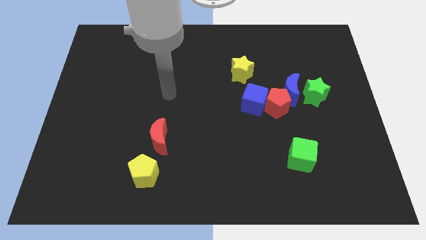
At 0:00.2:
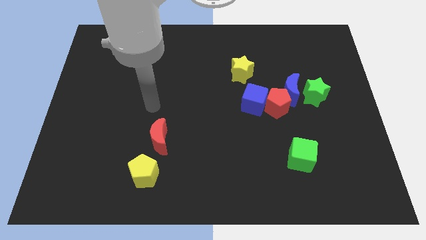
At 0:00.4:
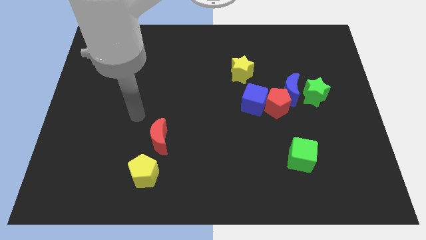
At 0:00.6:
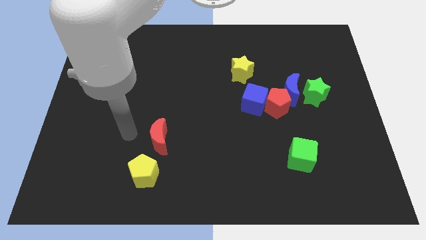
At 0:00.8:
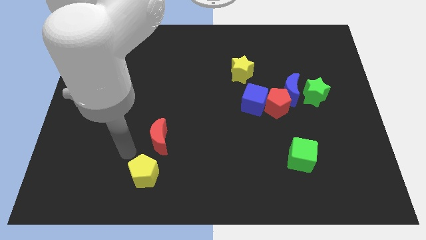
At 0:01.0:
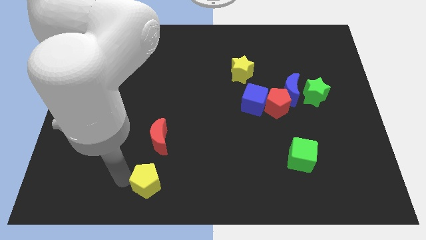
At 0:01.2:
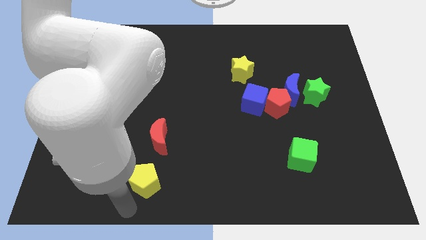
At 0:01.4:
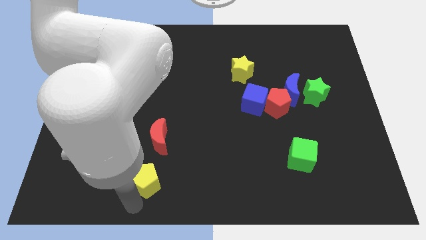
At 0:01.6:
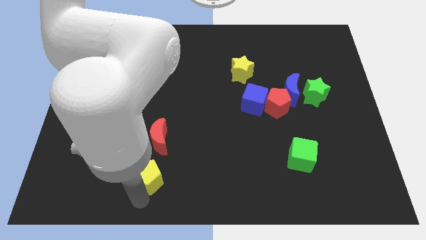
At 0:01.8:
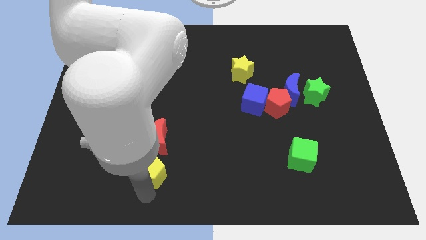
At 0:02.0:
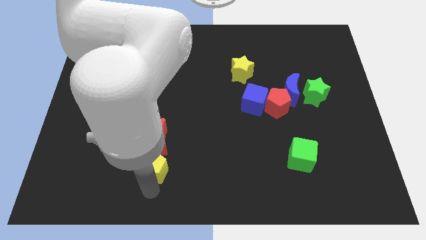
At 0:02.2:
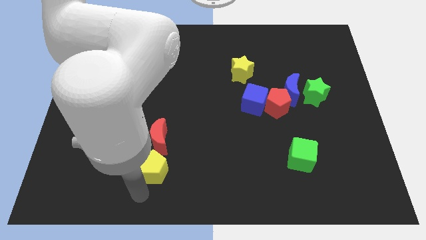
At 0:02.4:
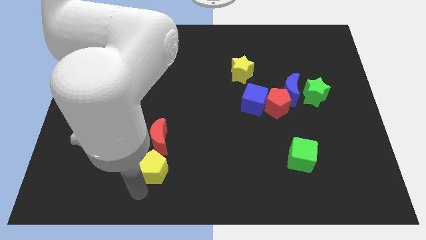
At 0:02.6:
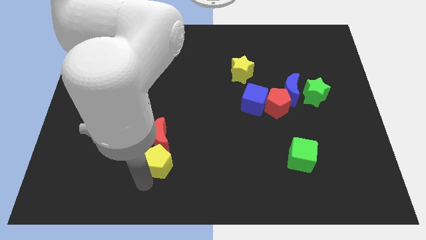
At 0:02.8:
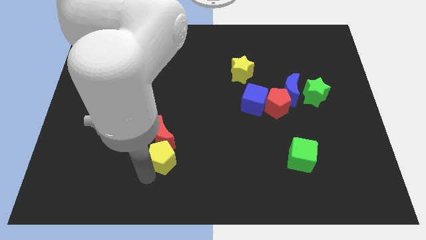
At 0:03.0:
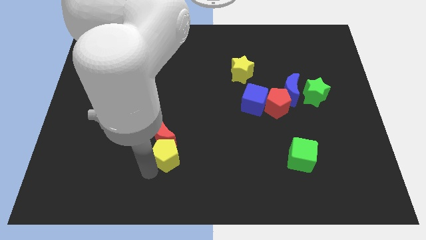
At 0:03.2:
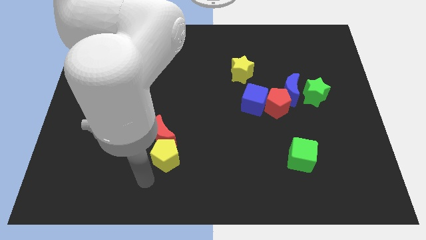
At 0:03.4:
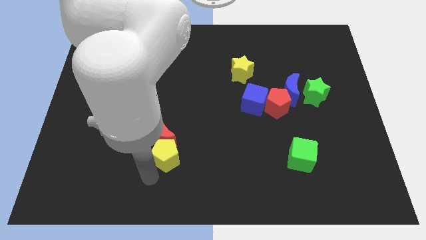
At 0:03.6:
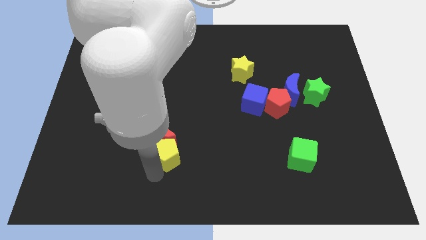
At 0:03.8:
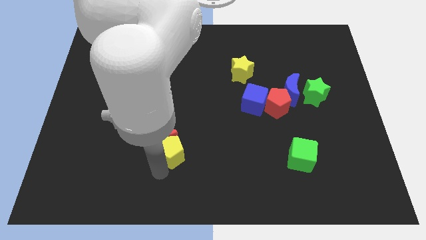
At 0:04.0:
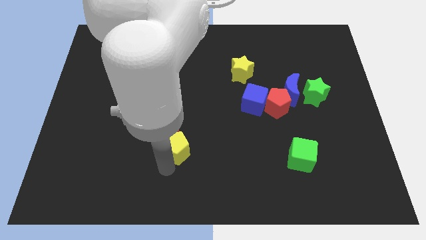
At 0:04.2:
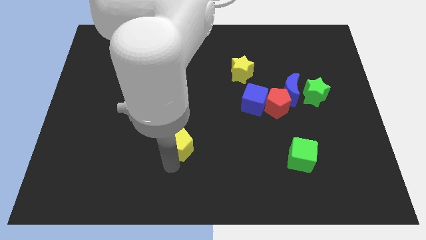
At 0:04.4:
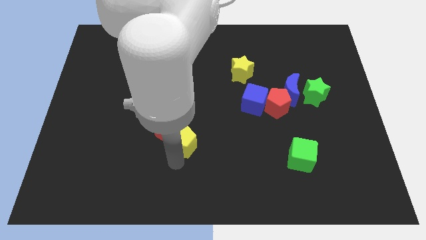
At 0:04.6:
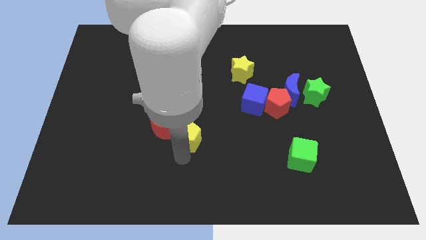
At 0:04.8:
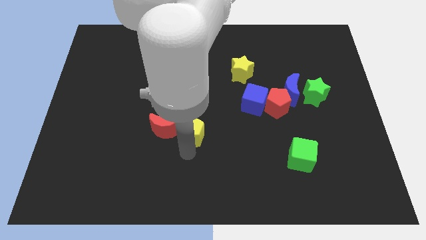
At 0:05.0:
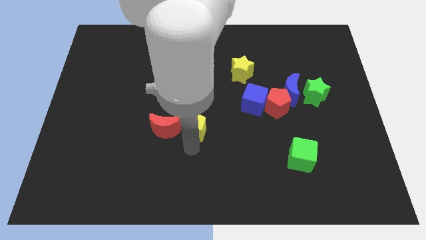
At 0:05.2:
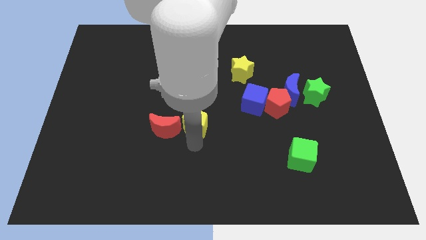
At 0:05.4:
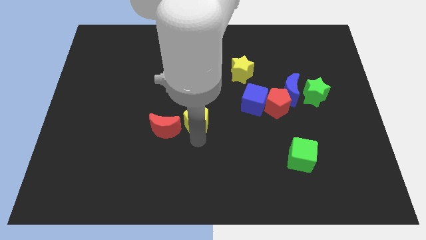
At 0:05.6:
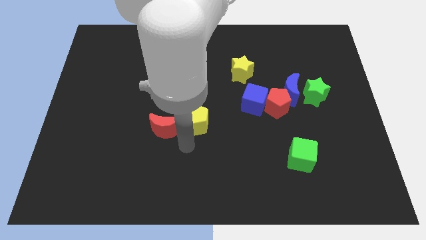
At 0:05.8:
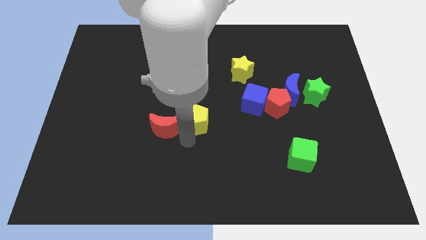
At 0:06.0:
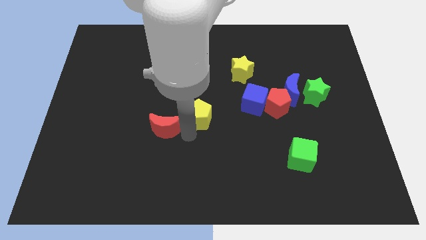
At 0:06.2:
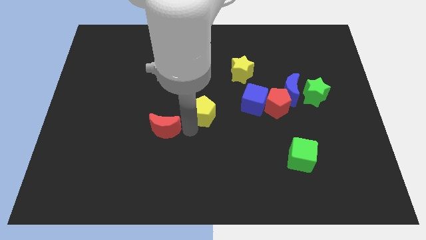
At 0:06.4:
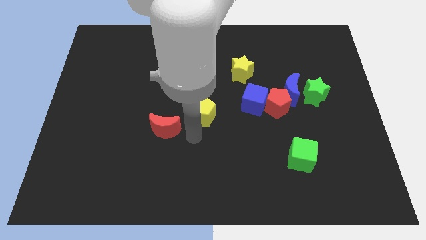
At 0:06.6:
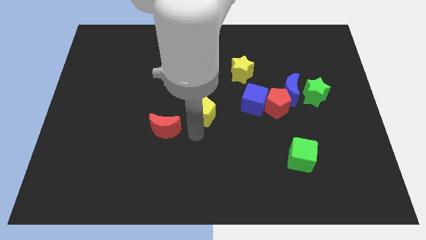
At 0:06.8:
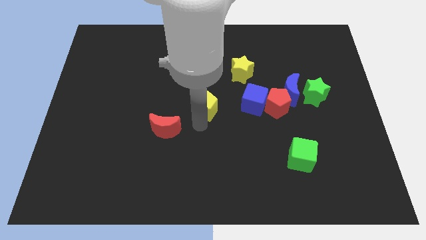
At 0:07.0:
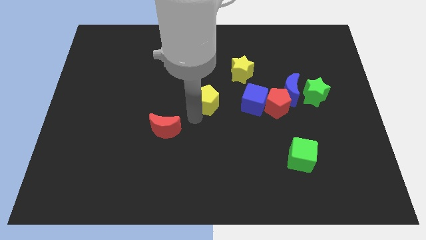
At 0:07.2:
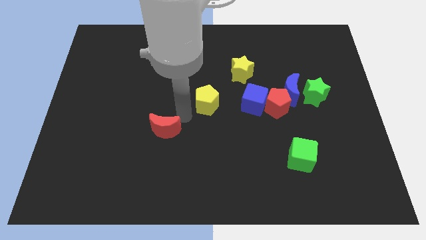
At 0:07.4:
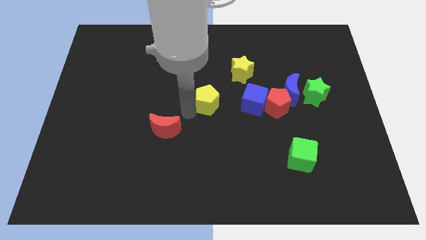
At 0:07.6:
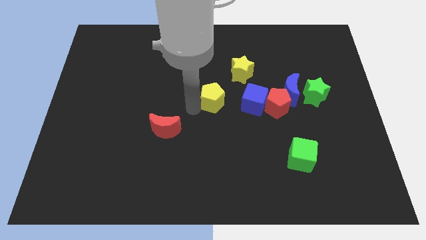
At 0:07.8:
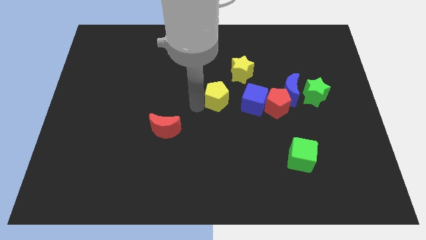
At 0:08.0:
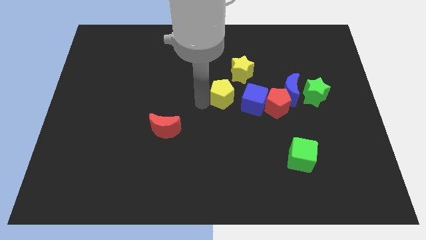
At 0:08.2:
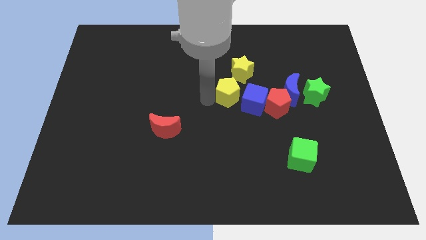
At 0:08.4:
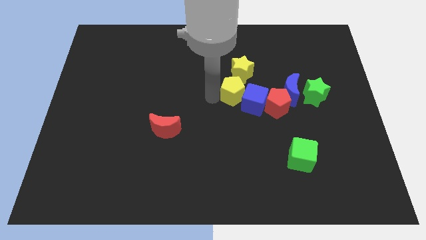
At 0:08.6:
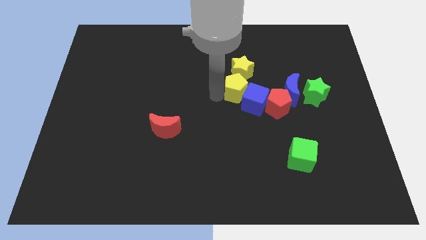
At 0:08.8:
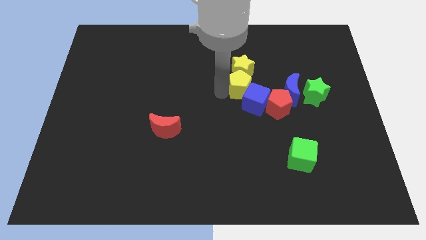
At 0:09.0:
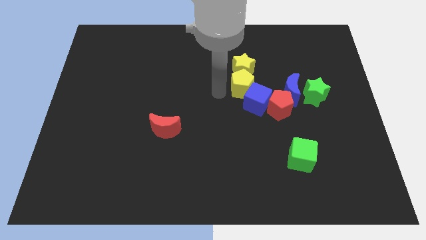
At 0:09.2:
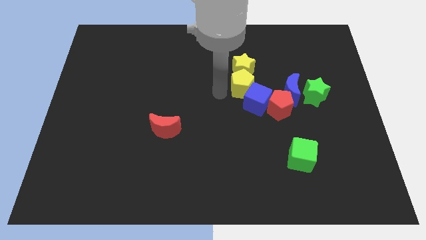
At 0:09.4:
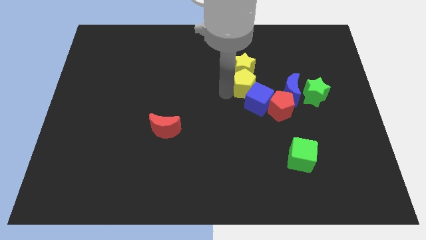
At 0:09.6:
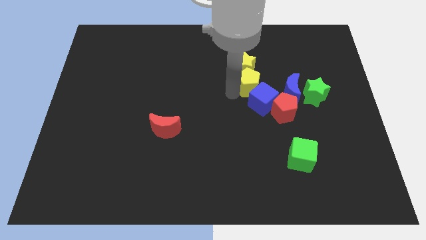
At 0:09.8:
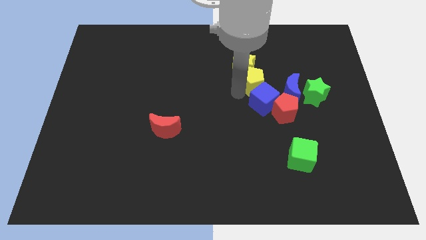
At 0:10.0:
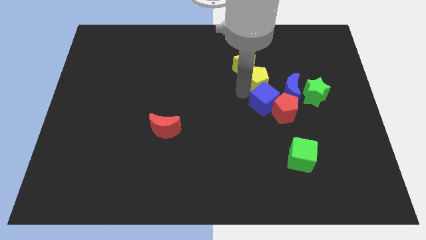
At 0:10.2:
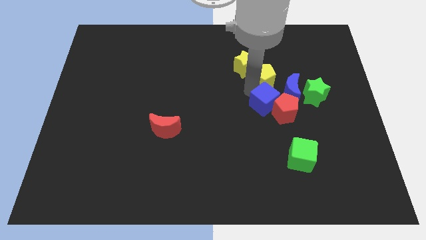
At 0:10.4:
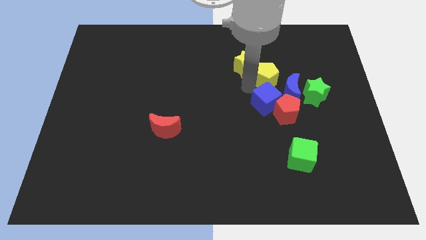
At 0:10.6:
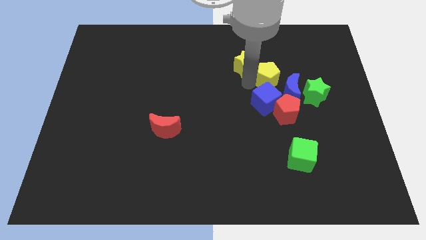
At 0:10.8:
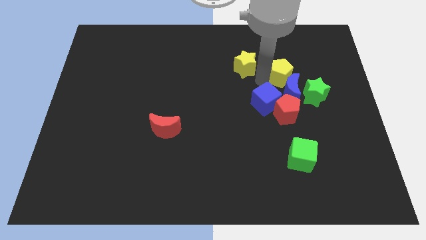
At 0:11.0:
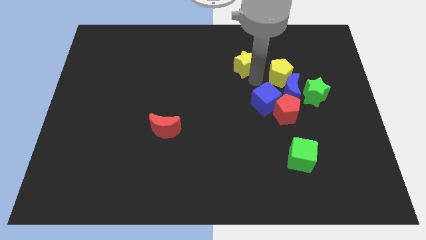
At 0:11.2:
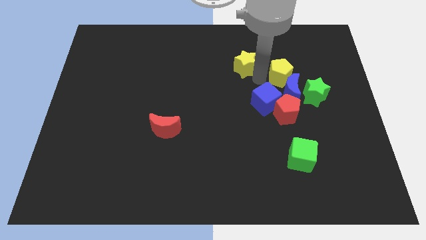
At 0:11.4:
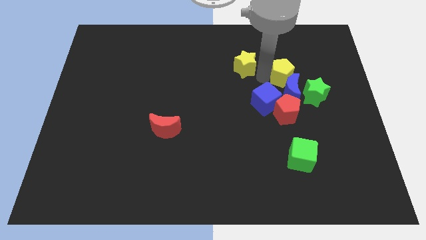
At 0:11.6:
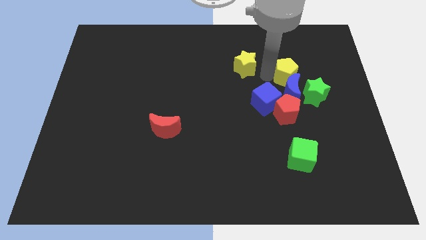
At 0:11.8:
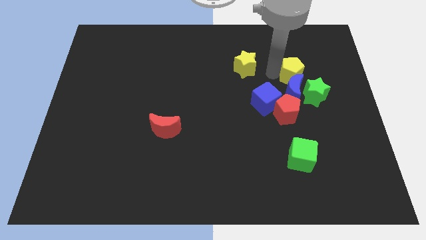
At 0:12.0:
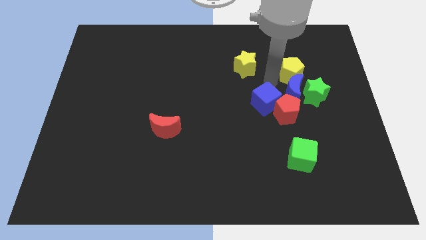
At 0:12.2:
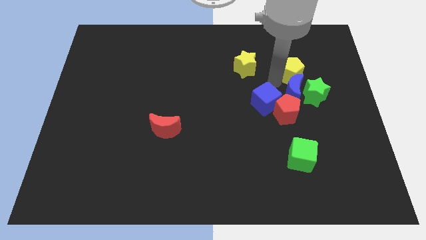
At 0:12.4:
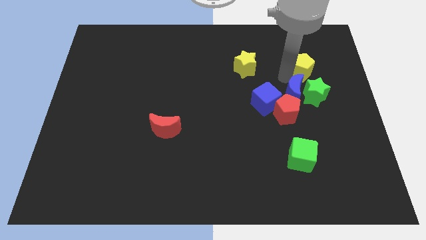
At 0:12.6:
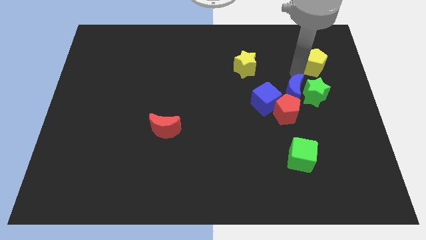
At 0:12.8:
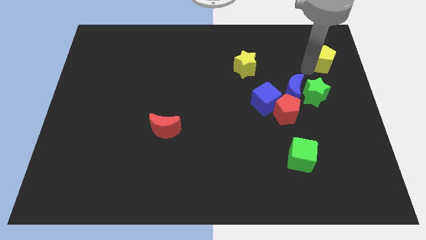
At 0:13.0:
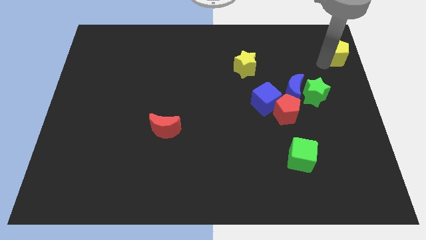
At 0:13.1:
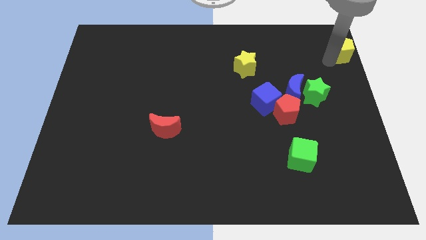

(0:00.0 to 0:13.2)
slide the yellow pentagon to the top right of the board

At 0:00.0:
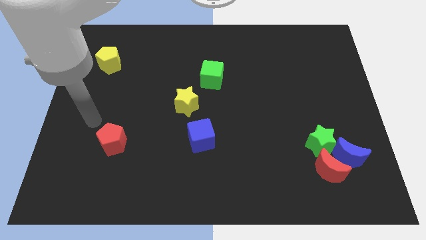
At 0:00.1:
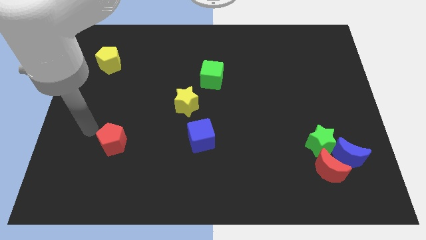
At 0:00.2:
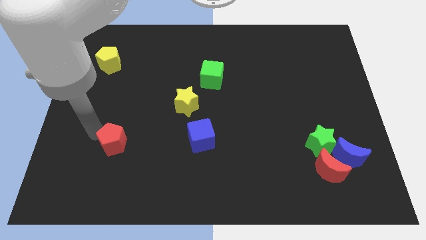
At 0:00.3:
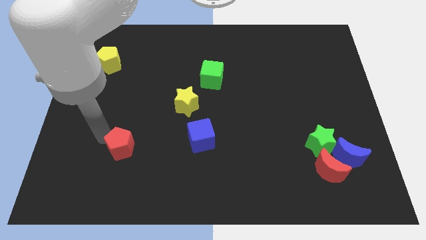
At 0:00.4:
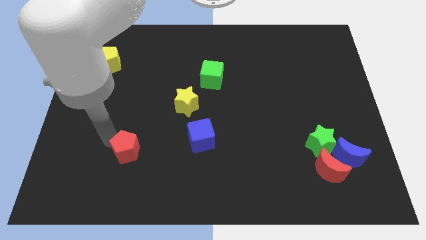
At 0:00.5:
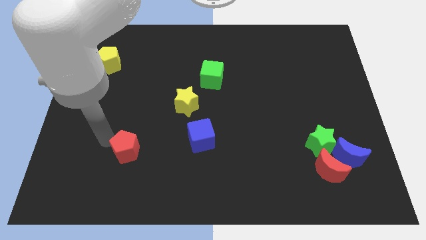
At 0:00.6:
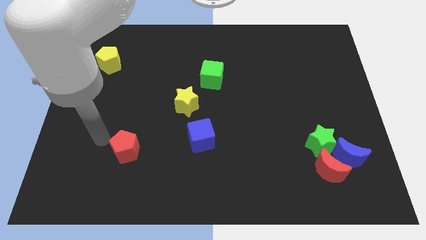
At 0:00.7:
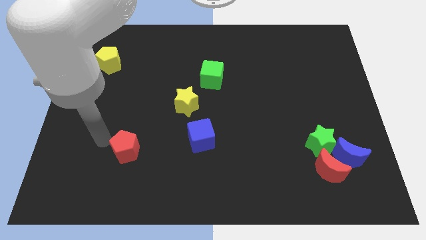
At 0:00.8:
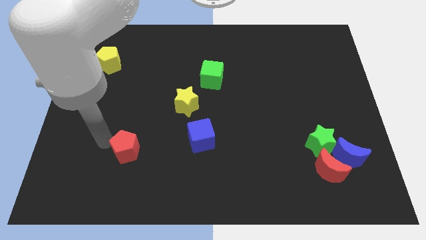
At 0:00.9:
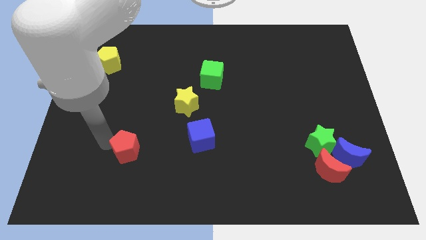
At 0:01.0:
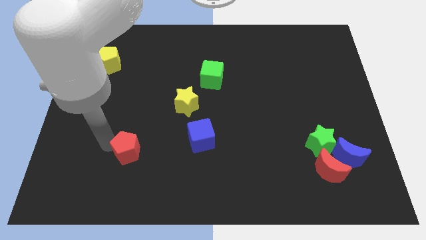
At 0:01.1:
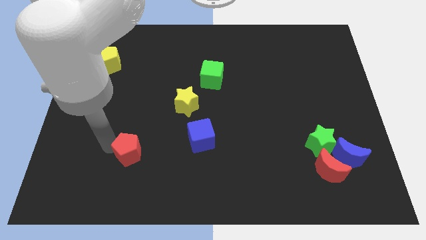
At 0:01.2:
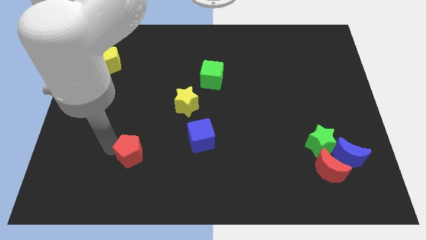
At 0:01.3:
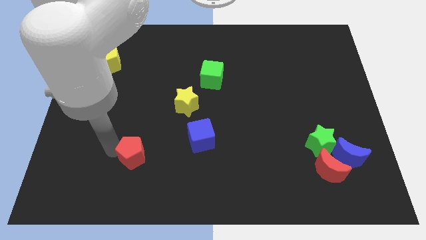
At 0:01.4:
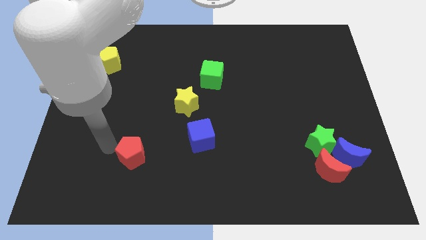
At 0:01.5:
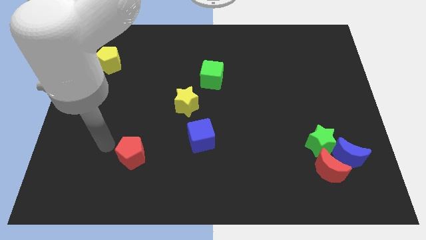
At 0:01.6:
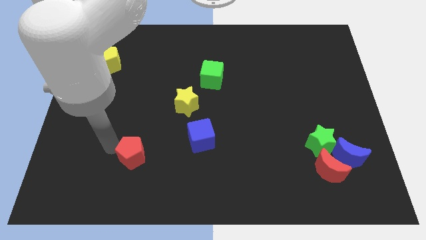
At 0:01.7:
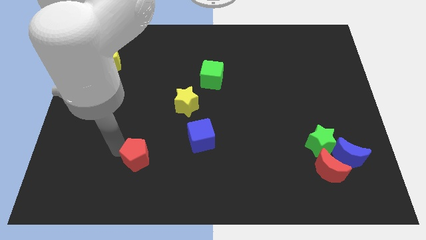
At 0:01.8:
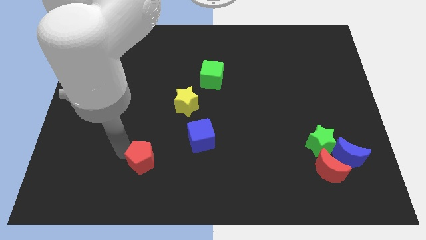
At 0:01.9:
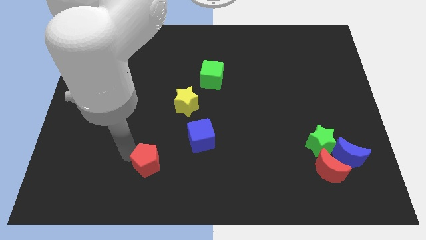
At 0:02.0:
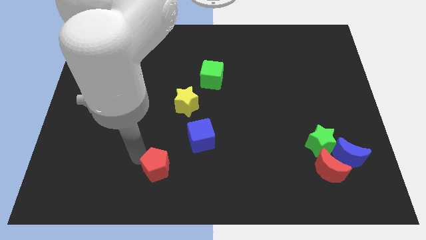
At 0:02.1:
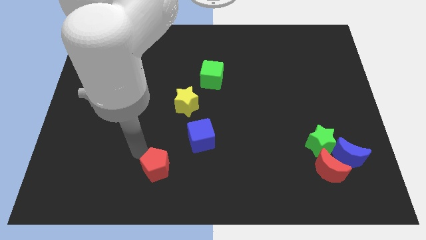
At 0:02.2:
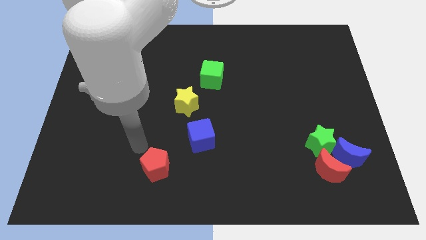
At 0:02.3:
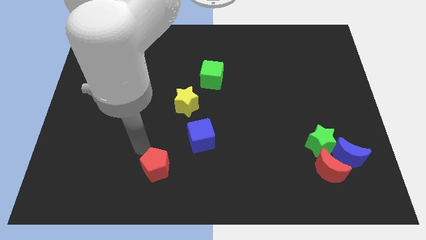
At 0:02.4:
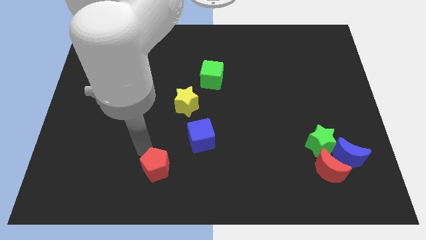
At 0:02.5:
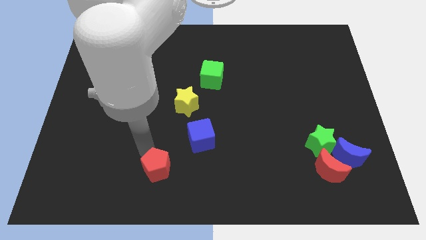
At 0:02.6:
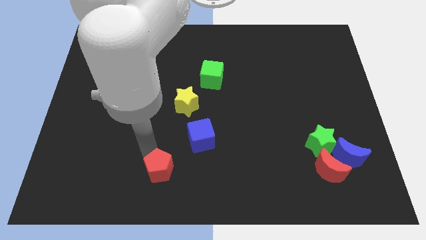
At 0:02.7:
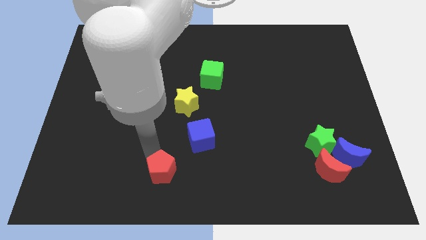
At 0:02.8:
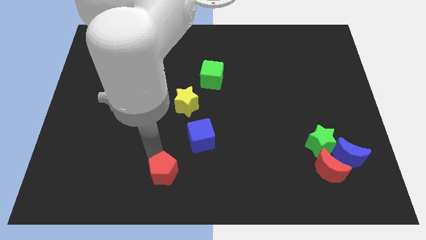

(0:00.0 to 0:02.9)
move the red pentagon to the bottom side
